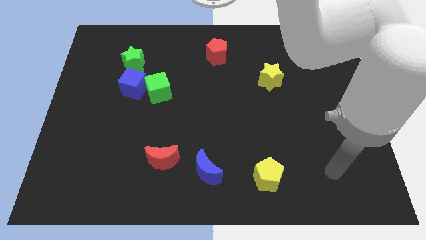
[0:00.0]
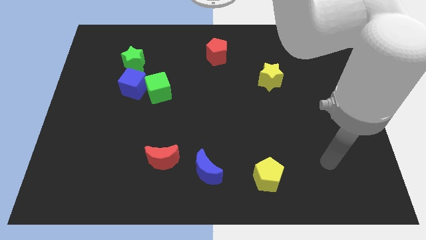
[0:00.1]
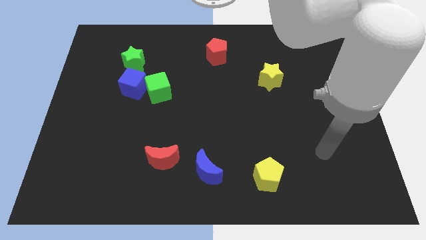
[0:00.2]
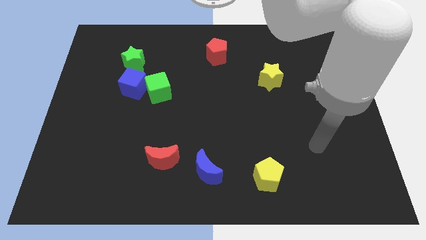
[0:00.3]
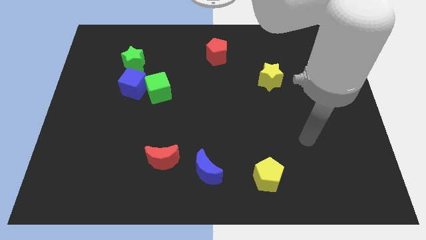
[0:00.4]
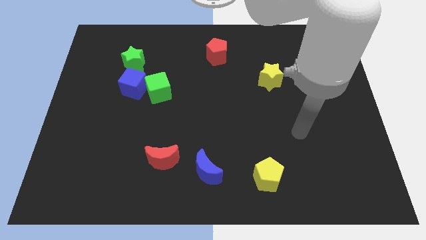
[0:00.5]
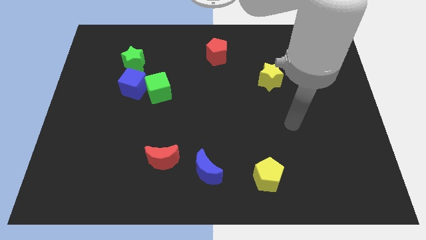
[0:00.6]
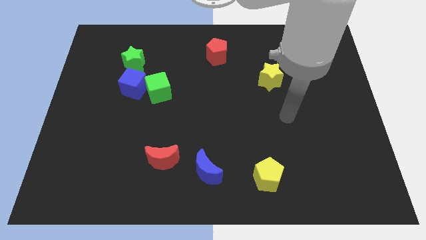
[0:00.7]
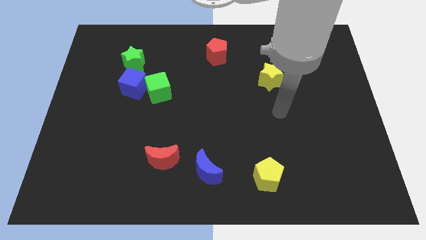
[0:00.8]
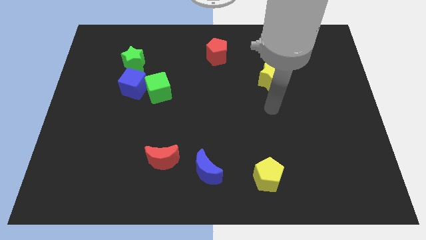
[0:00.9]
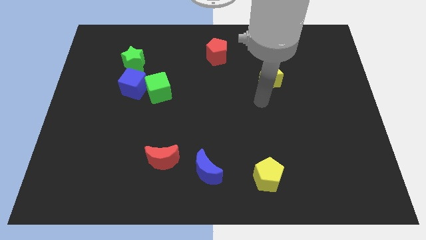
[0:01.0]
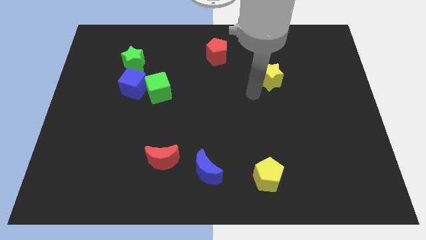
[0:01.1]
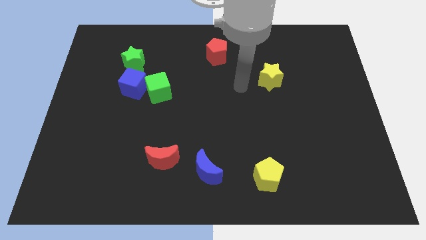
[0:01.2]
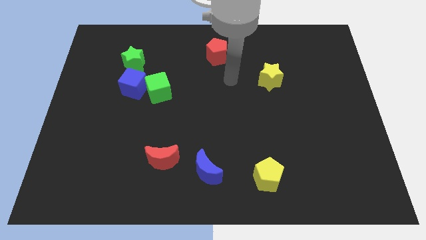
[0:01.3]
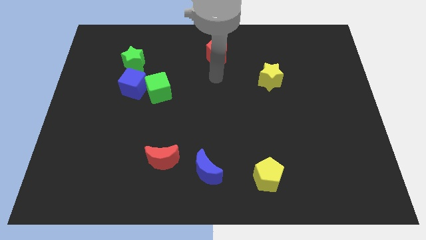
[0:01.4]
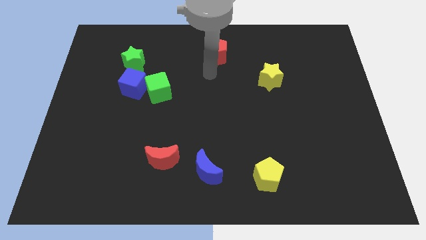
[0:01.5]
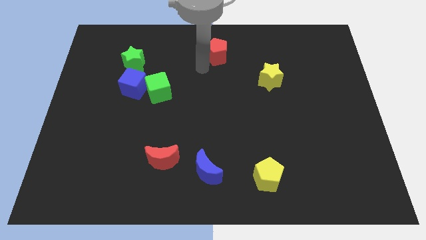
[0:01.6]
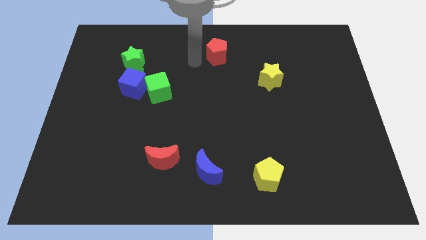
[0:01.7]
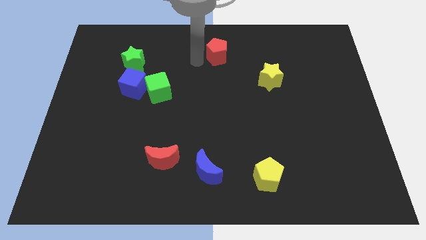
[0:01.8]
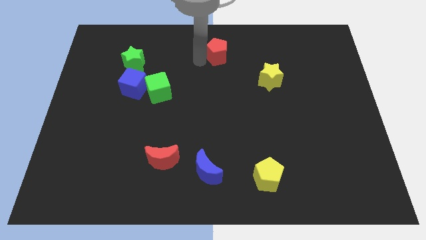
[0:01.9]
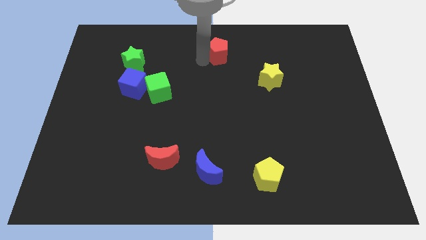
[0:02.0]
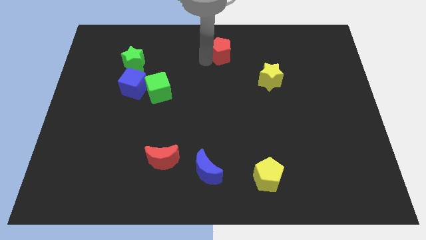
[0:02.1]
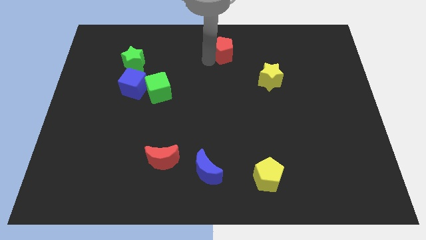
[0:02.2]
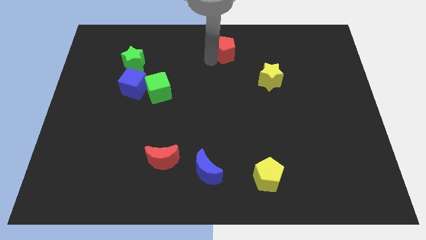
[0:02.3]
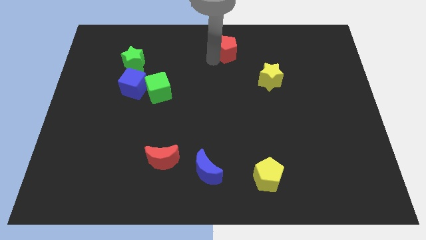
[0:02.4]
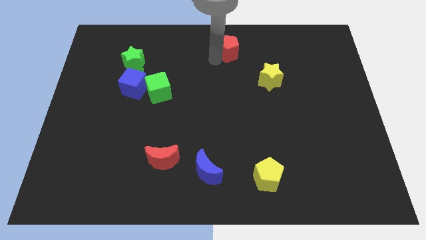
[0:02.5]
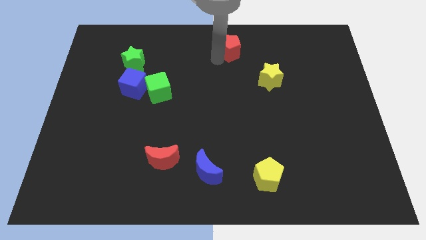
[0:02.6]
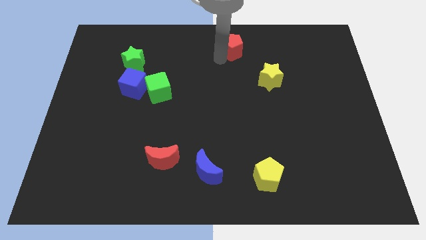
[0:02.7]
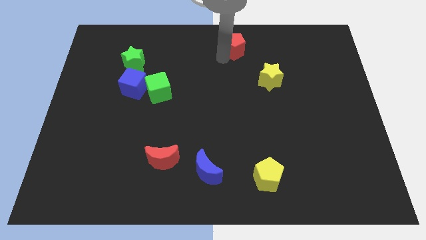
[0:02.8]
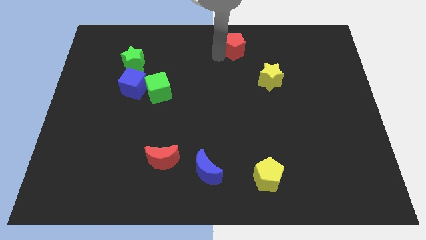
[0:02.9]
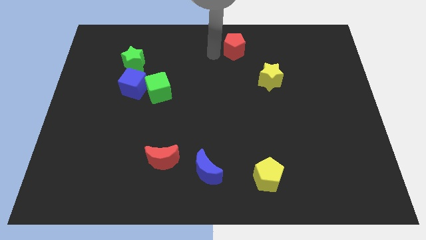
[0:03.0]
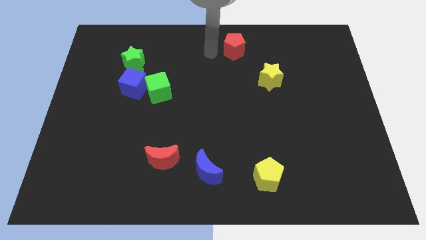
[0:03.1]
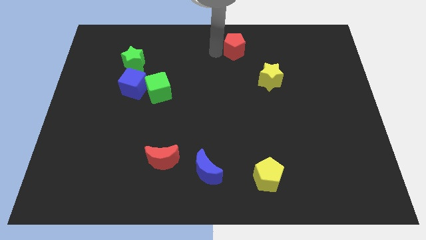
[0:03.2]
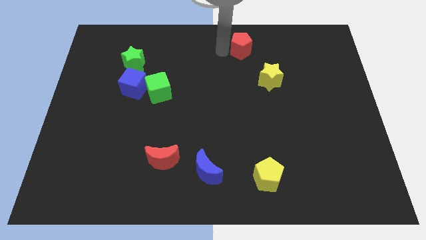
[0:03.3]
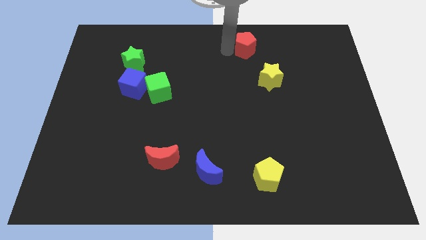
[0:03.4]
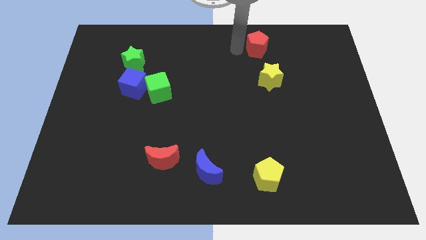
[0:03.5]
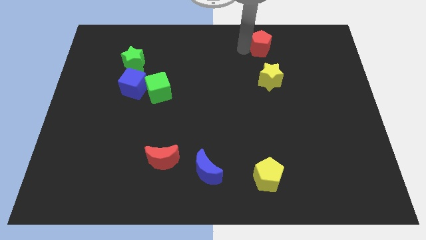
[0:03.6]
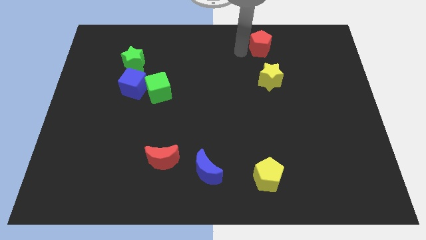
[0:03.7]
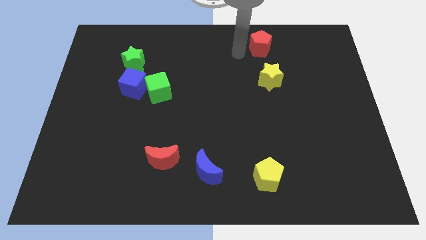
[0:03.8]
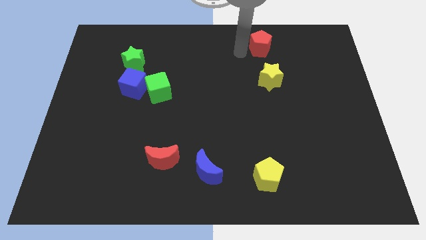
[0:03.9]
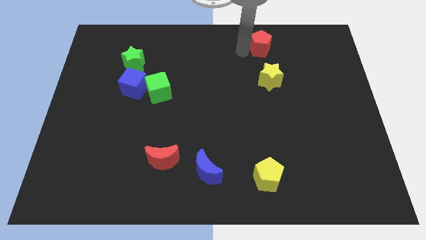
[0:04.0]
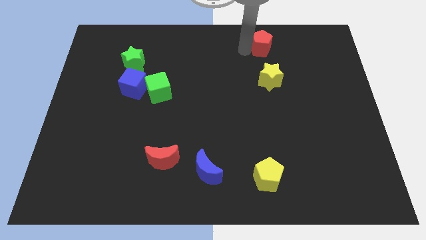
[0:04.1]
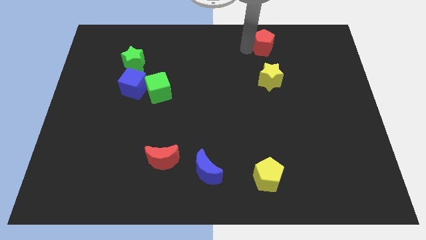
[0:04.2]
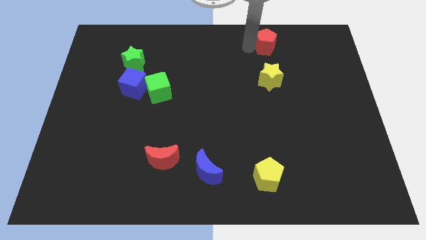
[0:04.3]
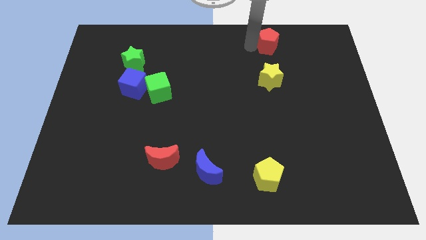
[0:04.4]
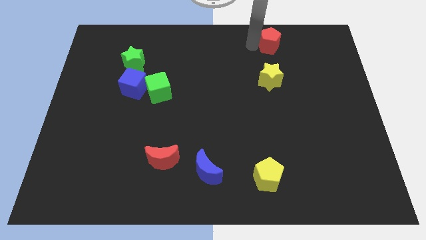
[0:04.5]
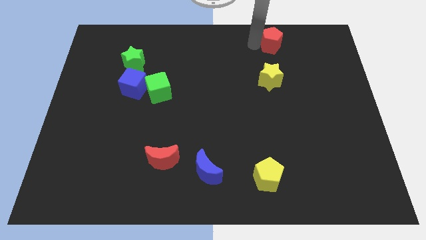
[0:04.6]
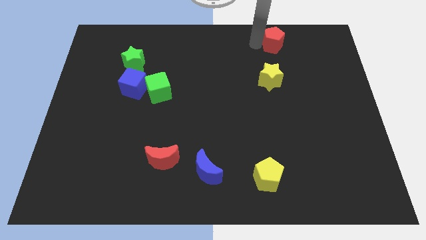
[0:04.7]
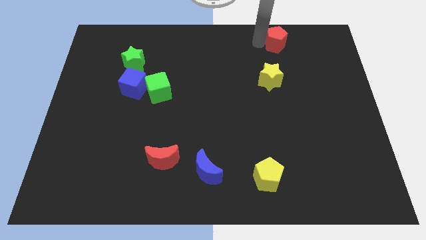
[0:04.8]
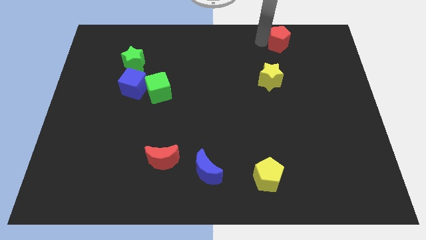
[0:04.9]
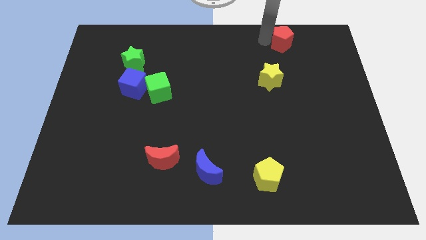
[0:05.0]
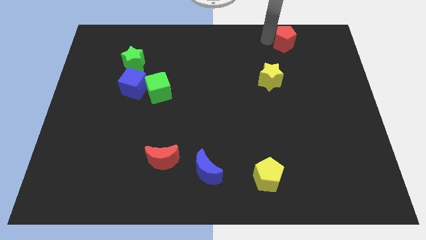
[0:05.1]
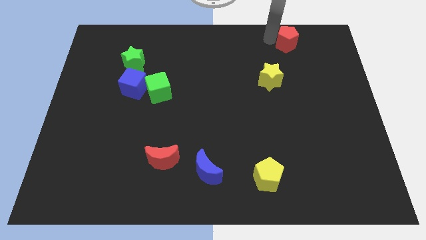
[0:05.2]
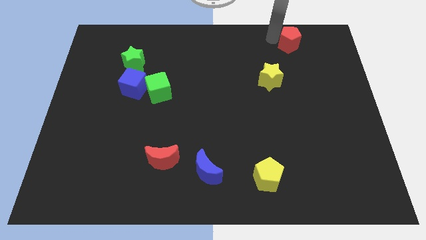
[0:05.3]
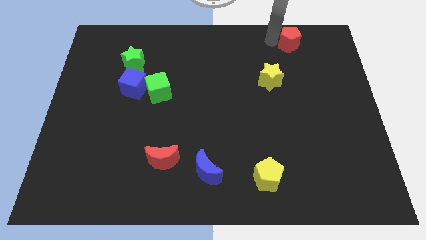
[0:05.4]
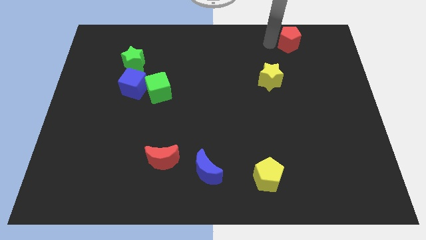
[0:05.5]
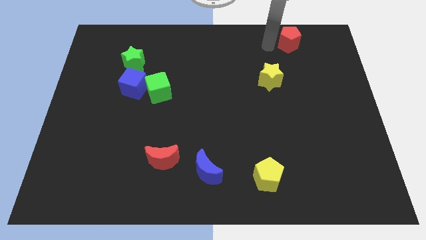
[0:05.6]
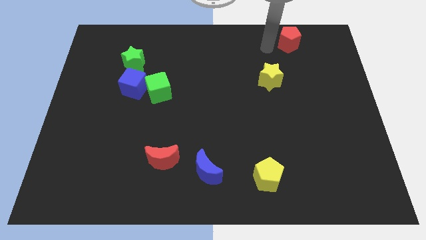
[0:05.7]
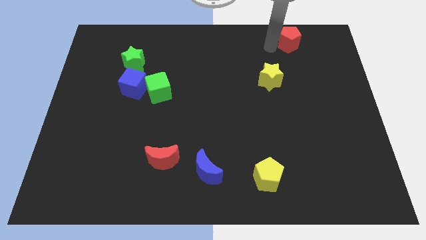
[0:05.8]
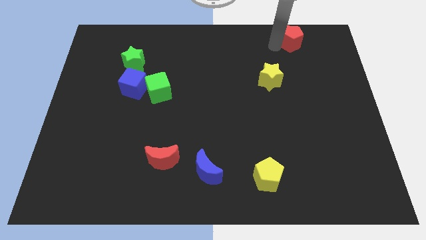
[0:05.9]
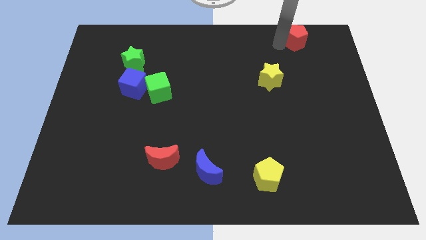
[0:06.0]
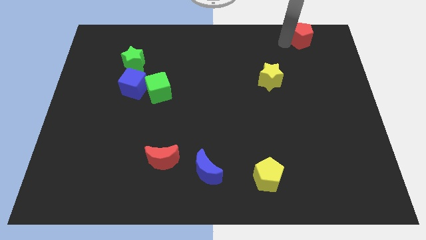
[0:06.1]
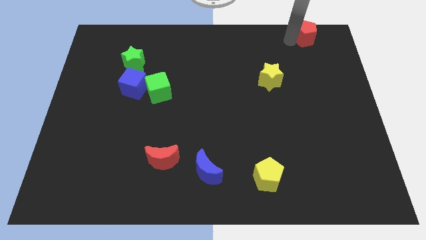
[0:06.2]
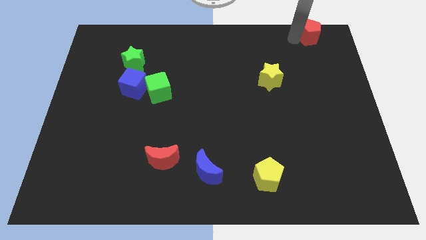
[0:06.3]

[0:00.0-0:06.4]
put the red pentagon to the upper right corner

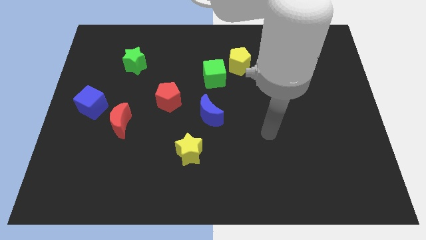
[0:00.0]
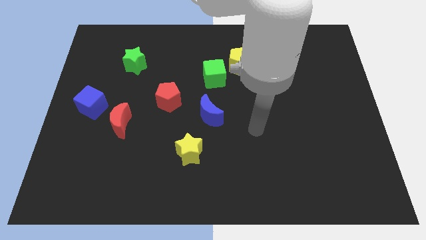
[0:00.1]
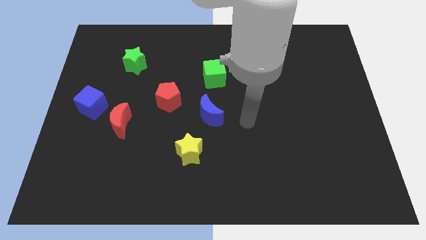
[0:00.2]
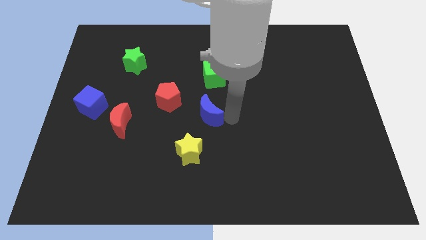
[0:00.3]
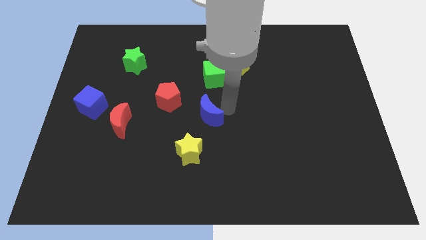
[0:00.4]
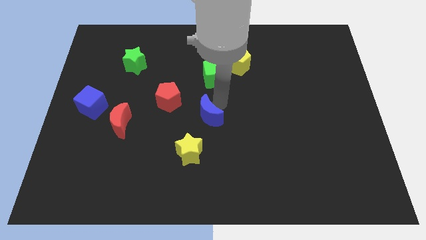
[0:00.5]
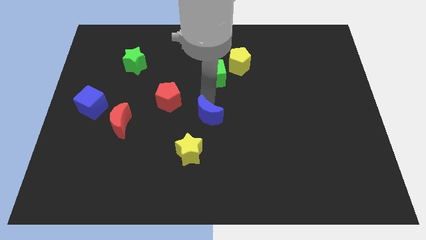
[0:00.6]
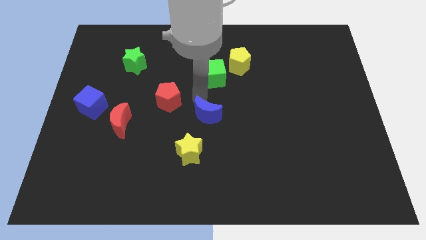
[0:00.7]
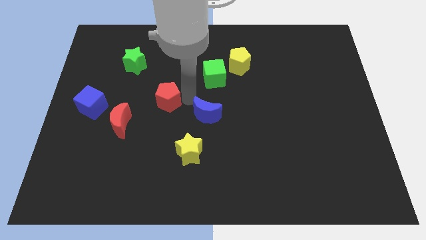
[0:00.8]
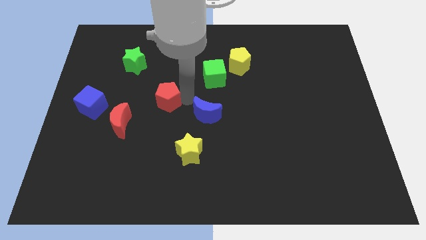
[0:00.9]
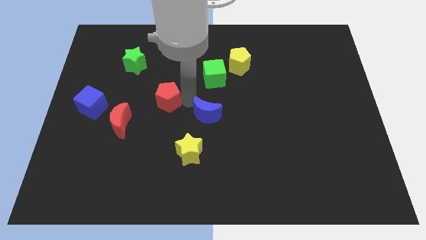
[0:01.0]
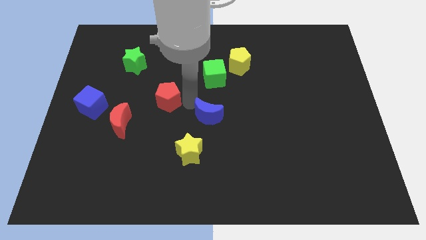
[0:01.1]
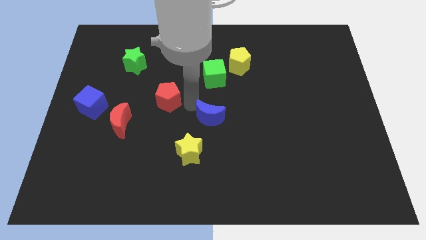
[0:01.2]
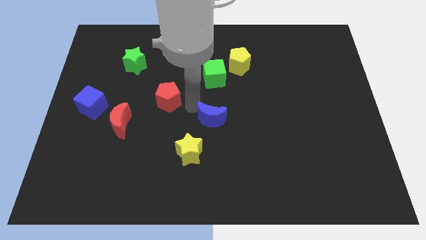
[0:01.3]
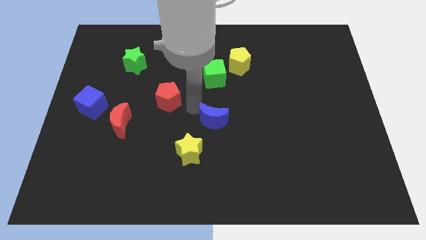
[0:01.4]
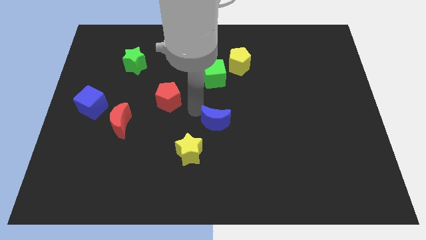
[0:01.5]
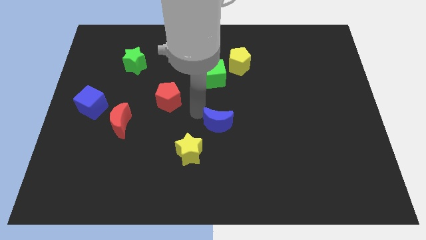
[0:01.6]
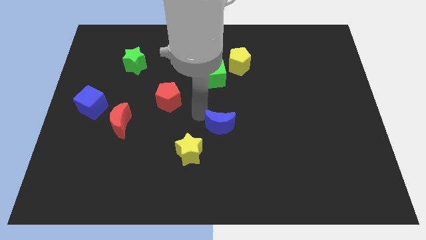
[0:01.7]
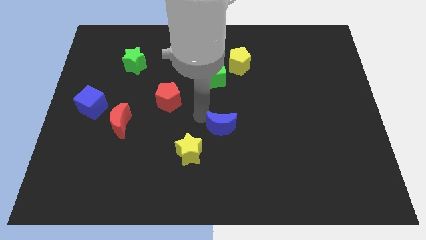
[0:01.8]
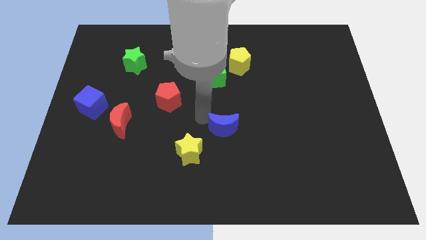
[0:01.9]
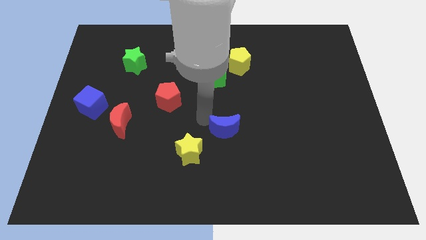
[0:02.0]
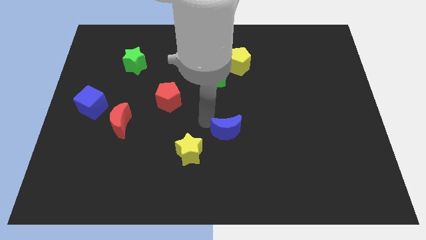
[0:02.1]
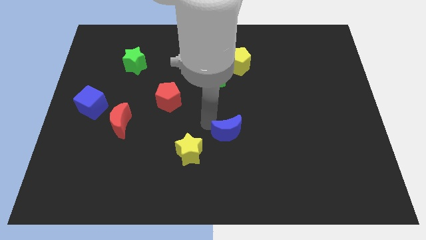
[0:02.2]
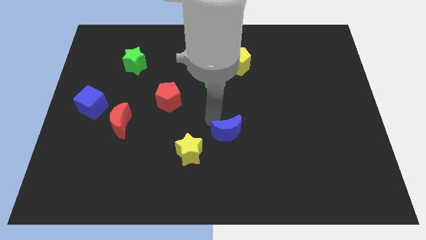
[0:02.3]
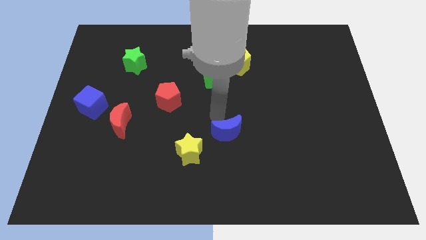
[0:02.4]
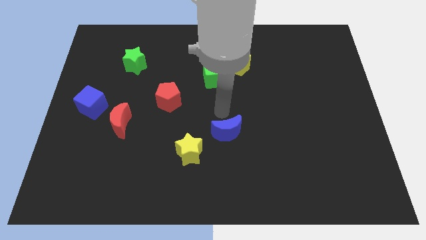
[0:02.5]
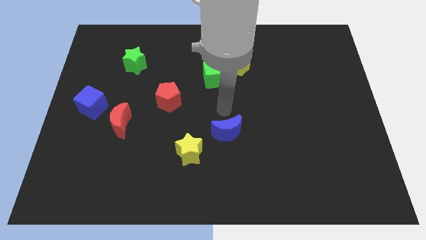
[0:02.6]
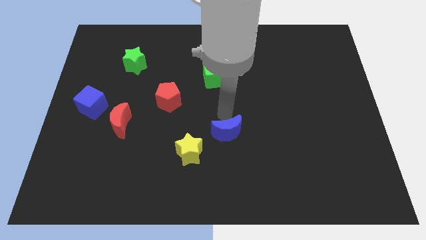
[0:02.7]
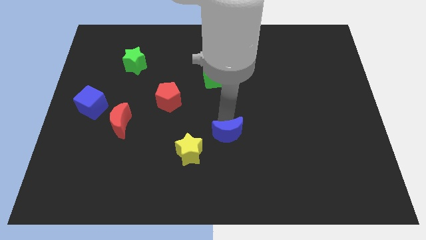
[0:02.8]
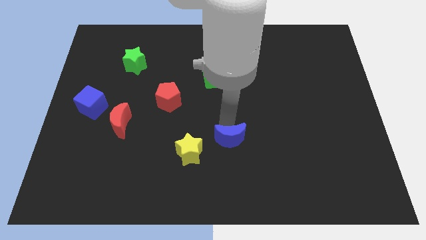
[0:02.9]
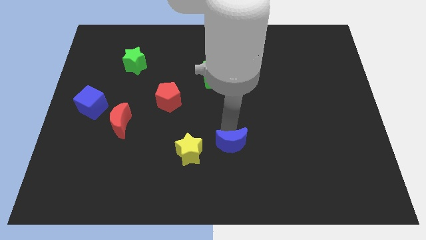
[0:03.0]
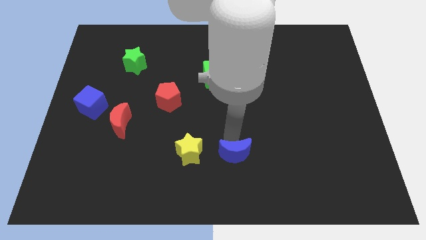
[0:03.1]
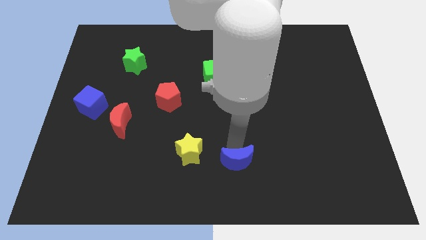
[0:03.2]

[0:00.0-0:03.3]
push the blue moon to the bottom side
